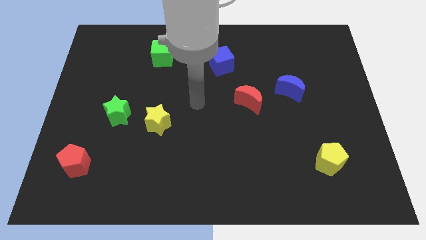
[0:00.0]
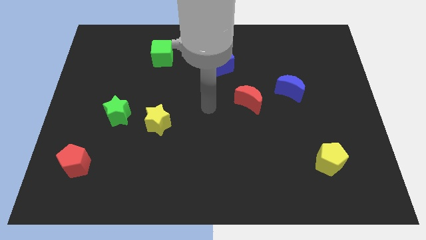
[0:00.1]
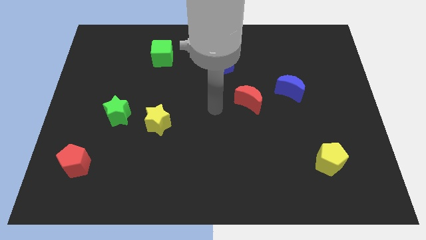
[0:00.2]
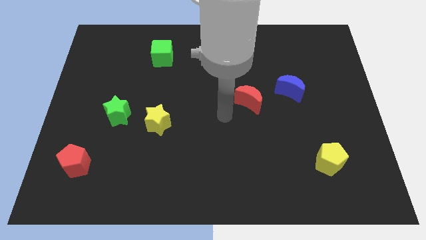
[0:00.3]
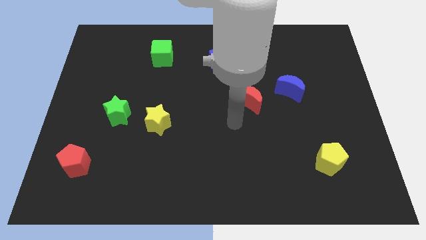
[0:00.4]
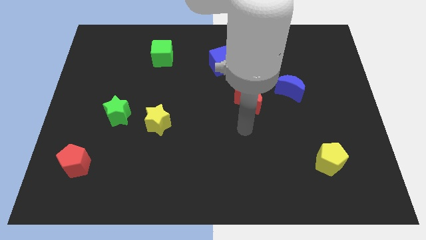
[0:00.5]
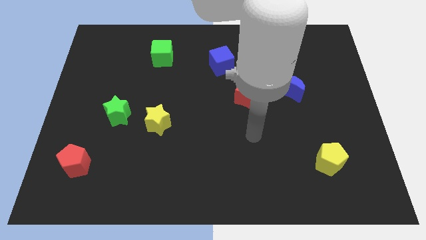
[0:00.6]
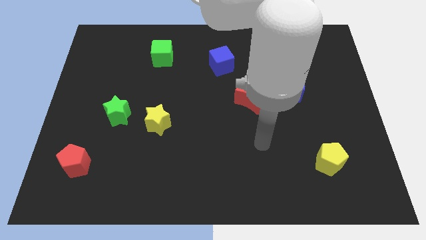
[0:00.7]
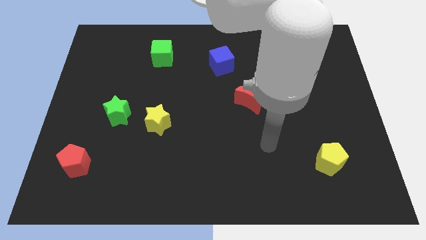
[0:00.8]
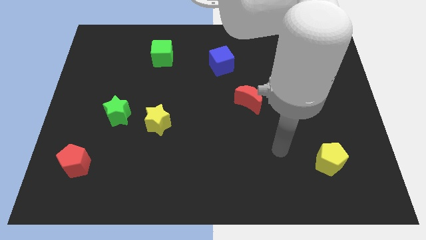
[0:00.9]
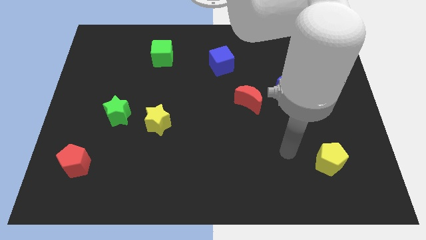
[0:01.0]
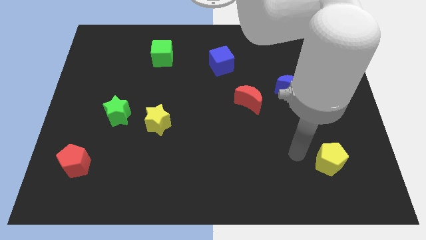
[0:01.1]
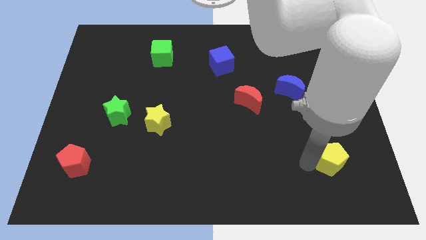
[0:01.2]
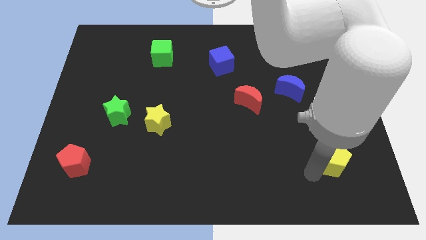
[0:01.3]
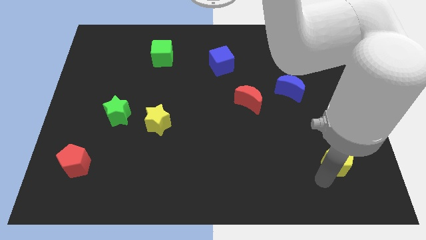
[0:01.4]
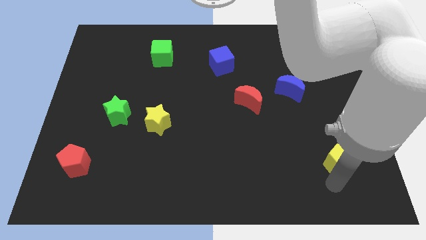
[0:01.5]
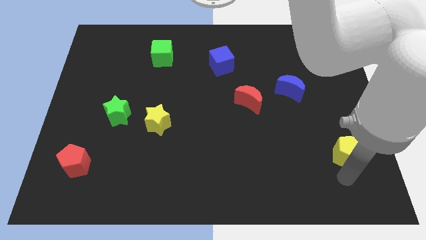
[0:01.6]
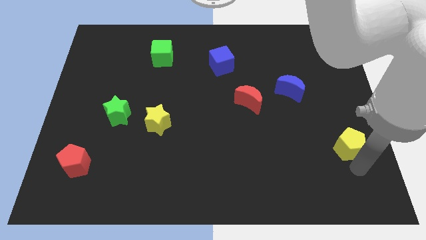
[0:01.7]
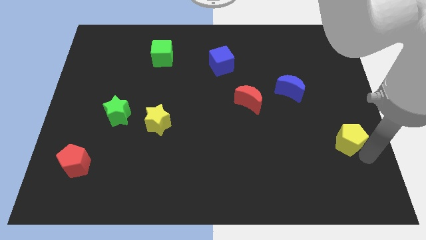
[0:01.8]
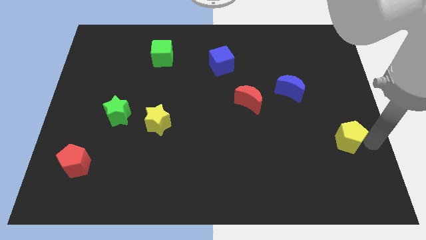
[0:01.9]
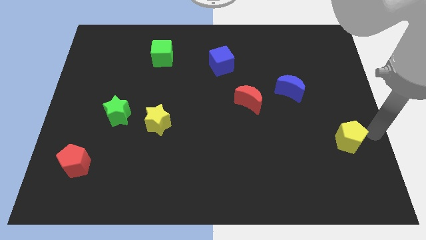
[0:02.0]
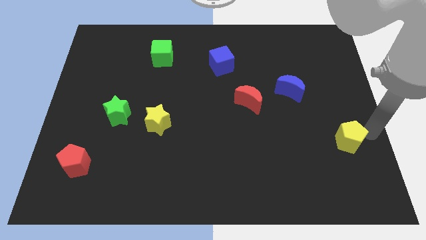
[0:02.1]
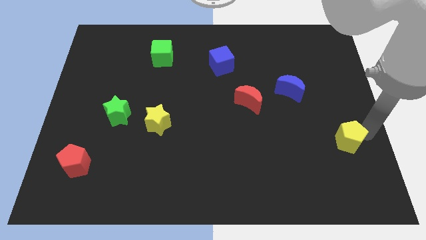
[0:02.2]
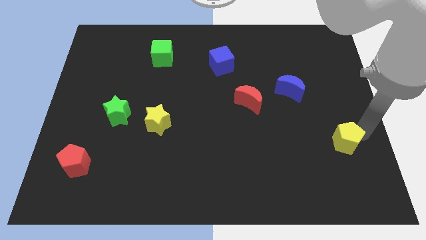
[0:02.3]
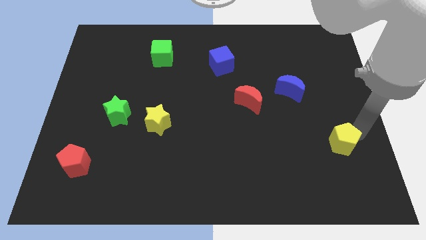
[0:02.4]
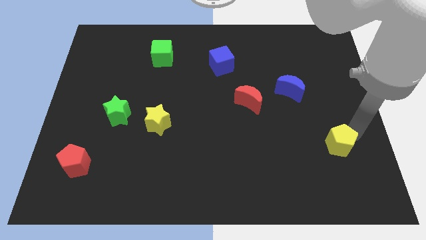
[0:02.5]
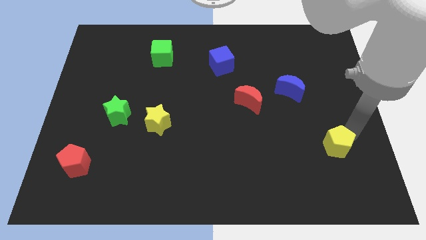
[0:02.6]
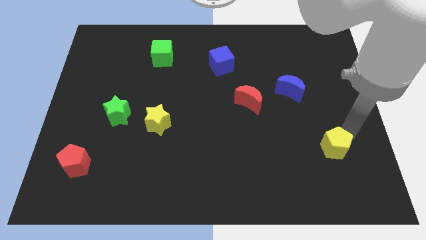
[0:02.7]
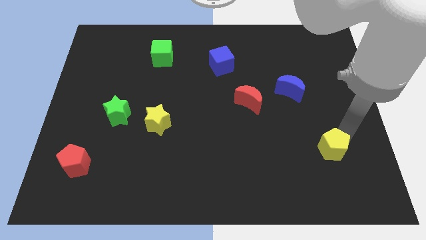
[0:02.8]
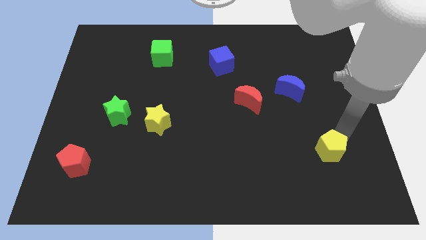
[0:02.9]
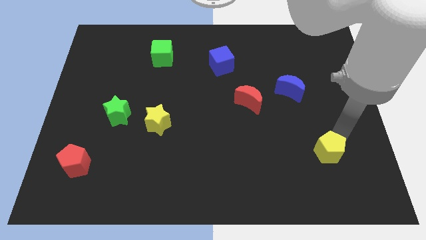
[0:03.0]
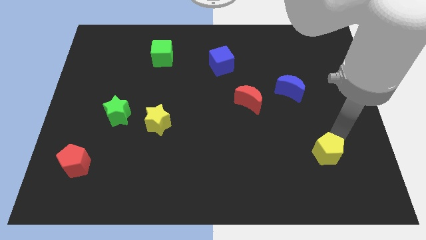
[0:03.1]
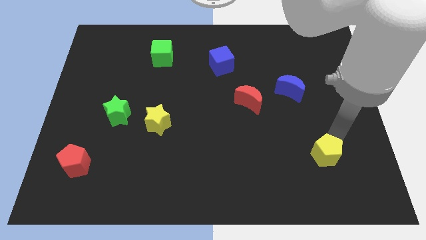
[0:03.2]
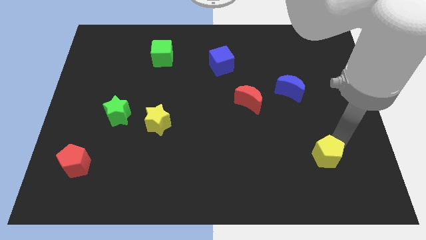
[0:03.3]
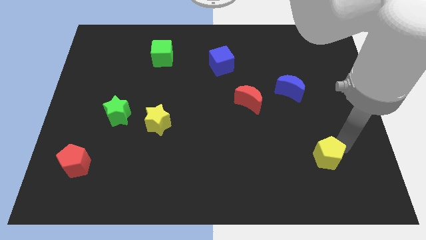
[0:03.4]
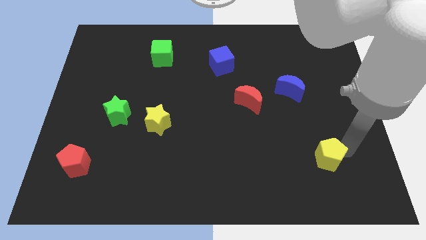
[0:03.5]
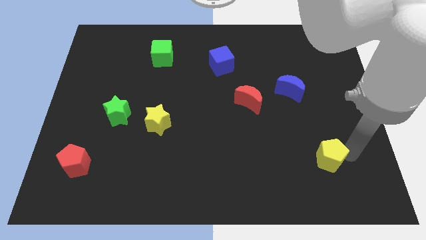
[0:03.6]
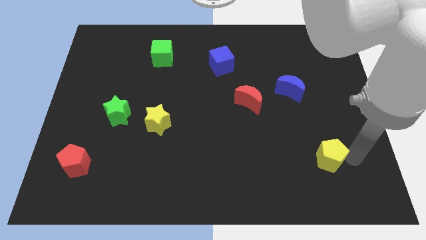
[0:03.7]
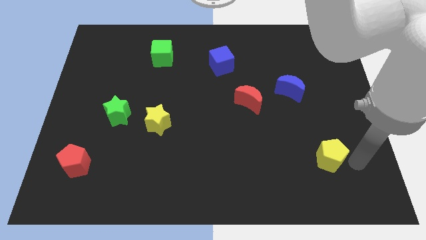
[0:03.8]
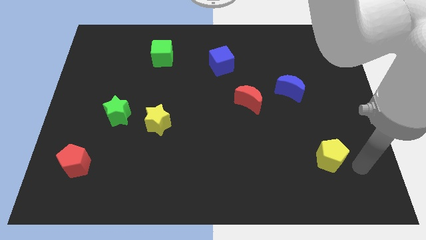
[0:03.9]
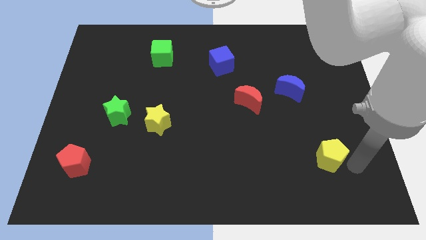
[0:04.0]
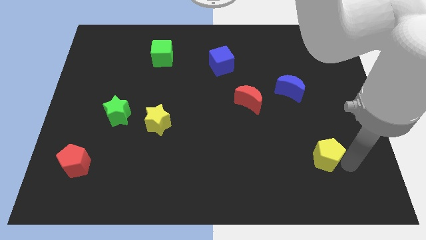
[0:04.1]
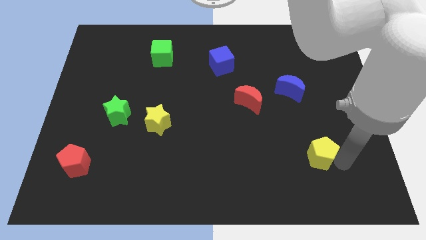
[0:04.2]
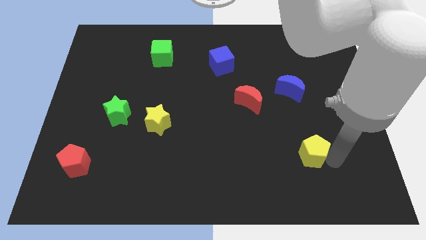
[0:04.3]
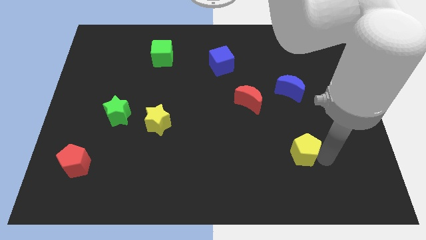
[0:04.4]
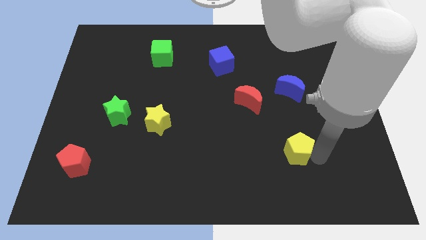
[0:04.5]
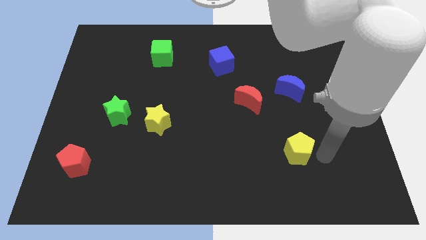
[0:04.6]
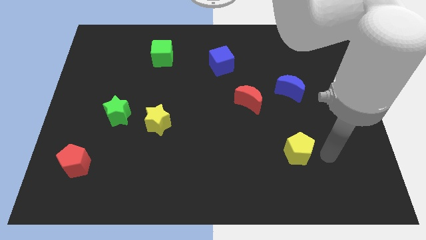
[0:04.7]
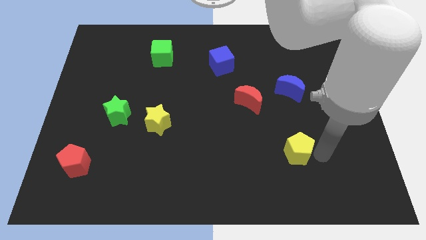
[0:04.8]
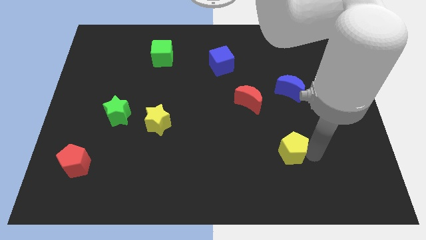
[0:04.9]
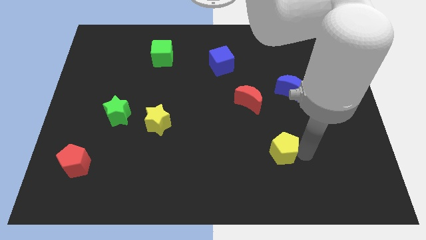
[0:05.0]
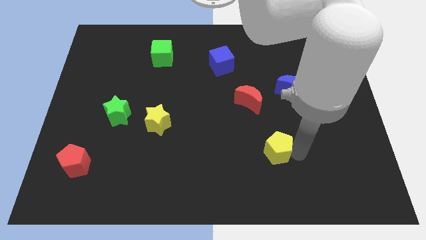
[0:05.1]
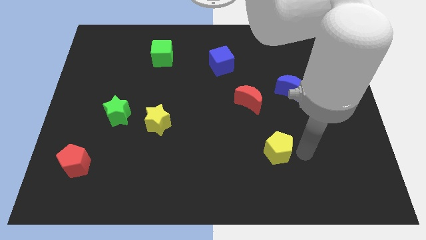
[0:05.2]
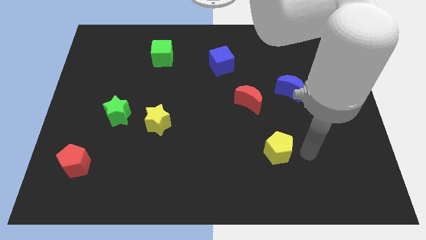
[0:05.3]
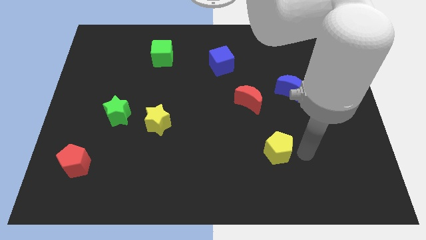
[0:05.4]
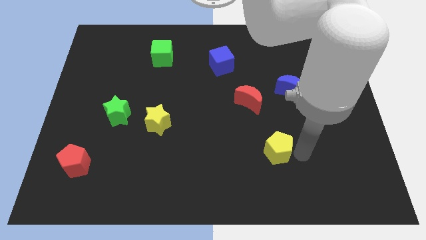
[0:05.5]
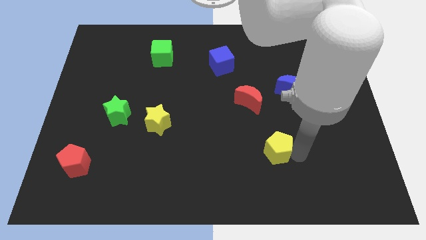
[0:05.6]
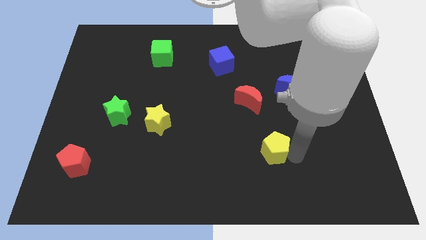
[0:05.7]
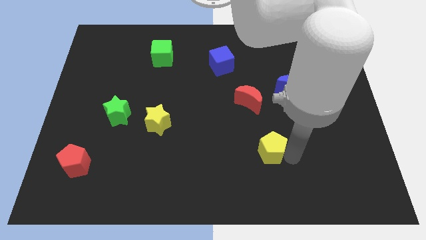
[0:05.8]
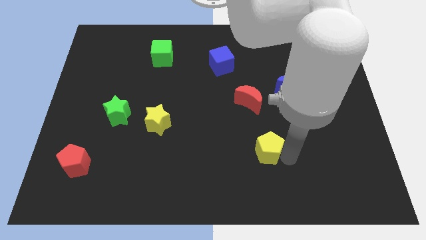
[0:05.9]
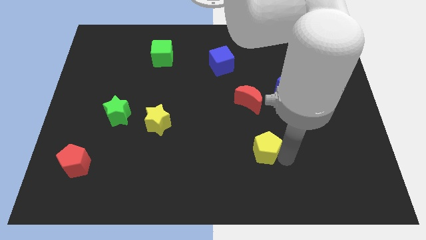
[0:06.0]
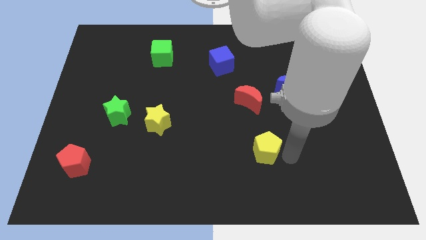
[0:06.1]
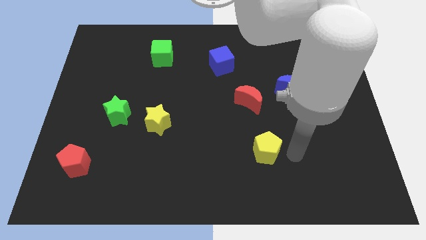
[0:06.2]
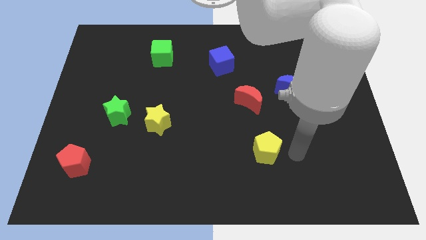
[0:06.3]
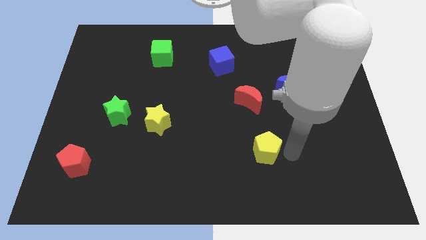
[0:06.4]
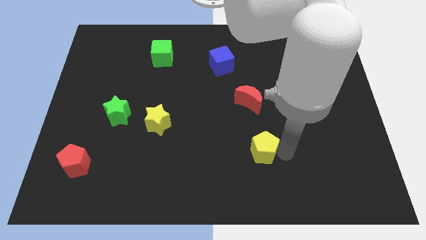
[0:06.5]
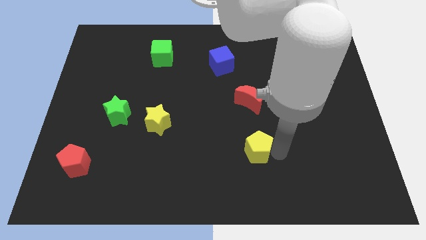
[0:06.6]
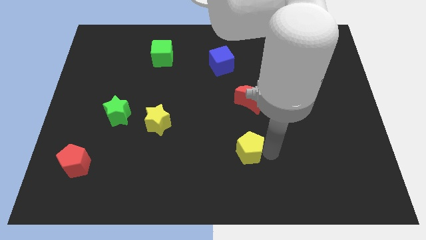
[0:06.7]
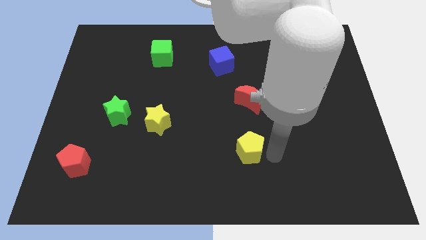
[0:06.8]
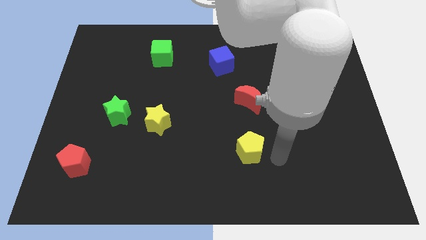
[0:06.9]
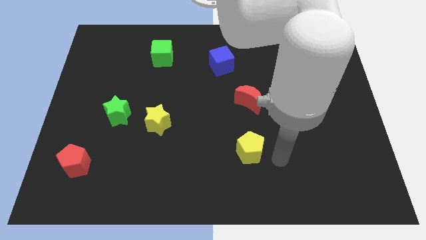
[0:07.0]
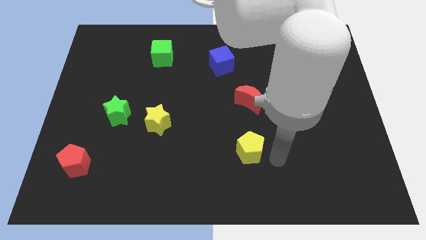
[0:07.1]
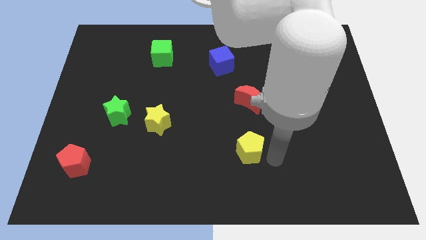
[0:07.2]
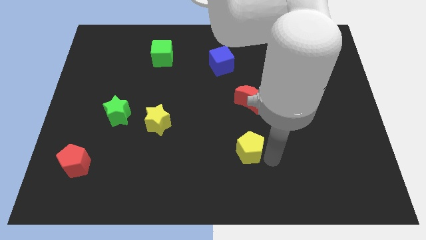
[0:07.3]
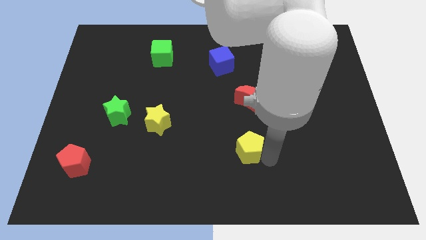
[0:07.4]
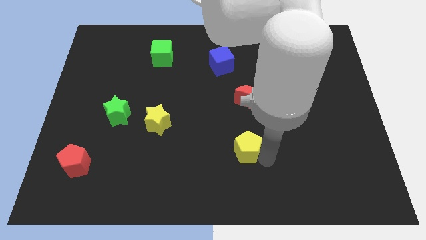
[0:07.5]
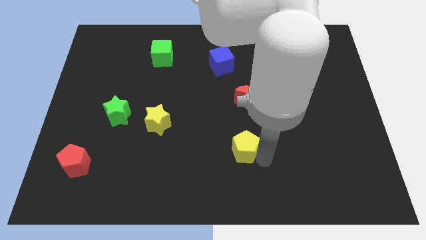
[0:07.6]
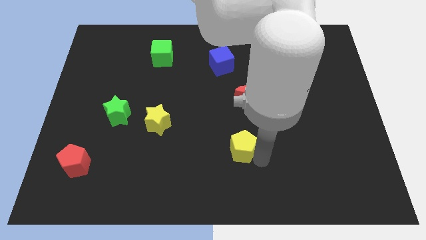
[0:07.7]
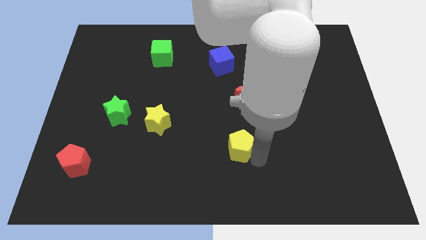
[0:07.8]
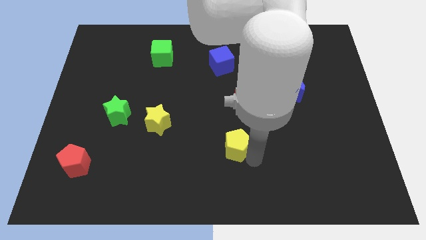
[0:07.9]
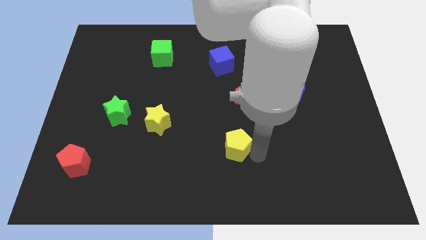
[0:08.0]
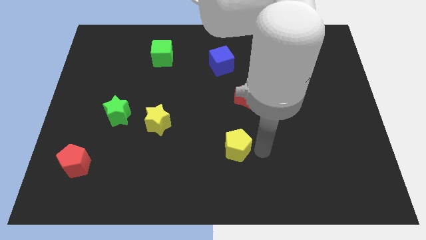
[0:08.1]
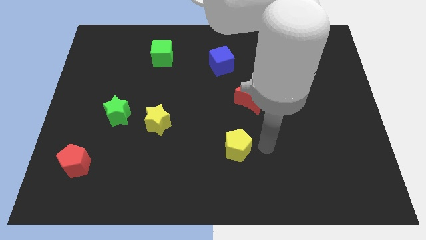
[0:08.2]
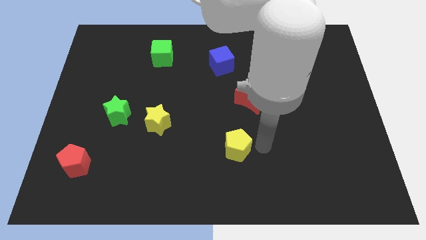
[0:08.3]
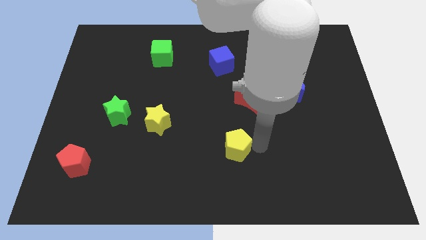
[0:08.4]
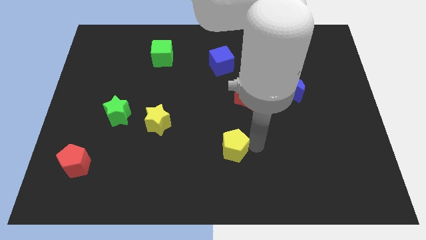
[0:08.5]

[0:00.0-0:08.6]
move the yellow pentagon to the left
